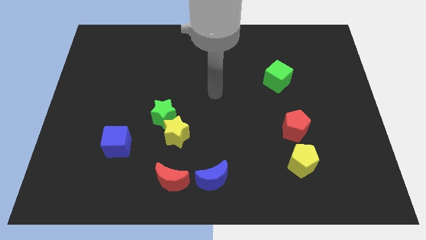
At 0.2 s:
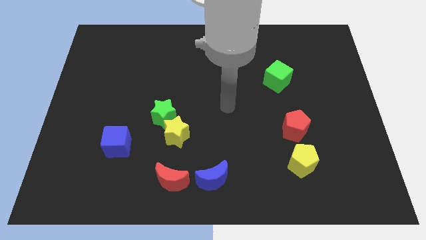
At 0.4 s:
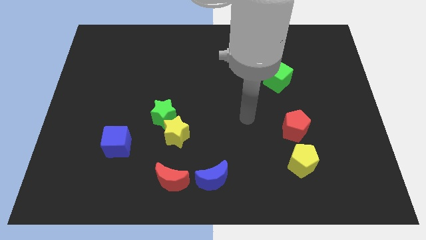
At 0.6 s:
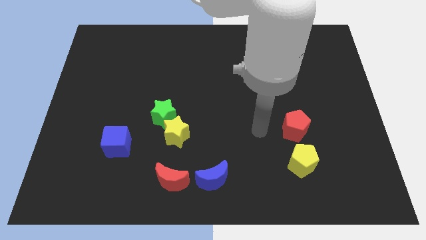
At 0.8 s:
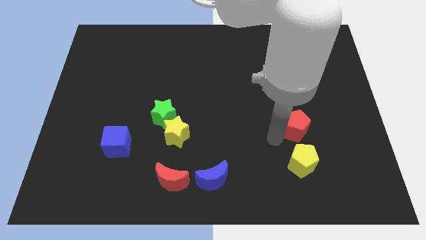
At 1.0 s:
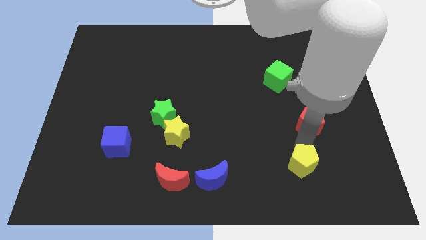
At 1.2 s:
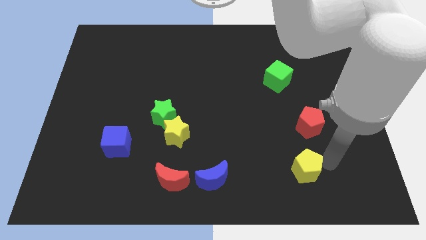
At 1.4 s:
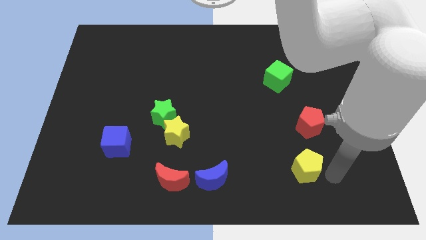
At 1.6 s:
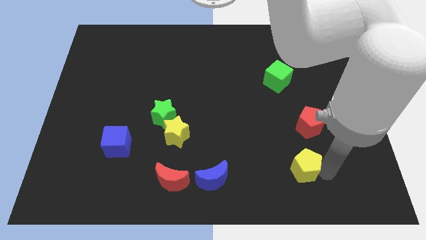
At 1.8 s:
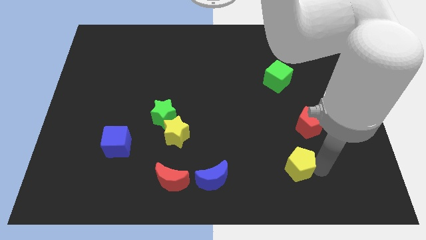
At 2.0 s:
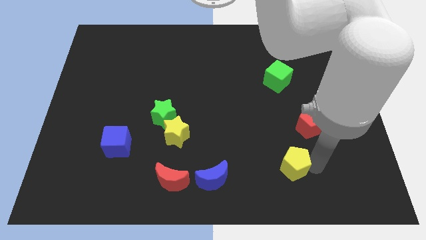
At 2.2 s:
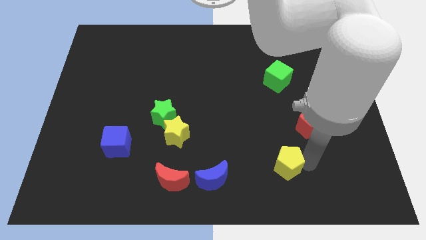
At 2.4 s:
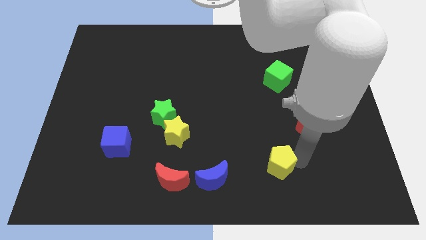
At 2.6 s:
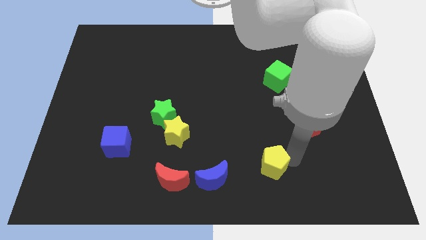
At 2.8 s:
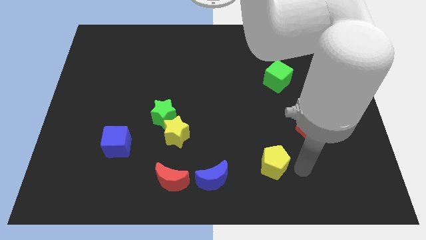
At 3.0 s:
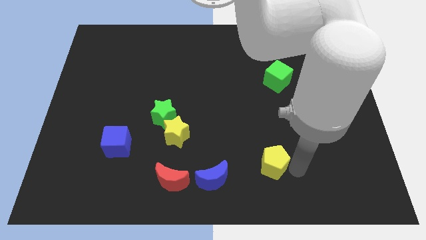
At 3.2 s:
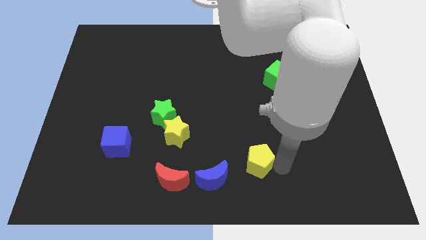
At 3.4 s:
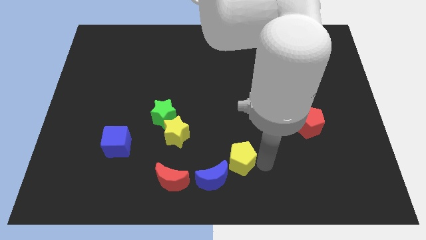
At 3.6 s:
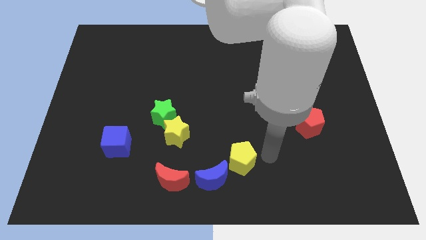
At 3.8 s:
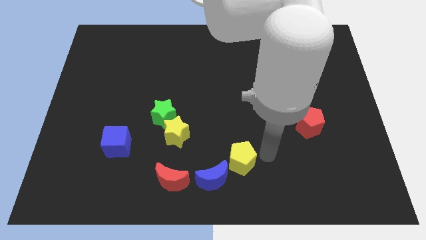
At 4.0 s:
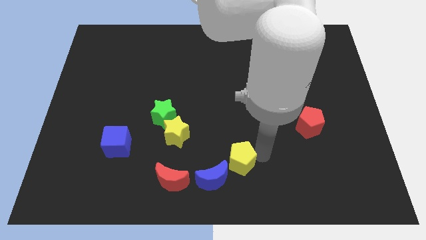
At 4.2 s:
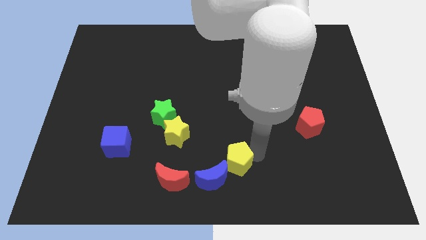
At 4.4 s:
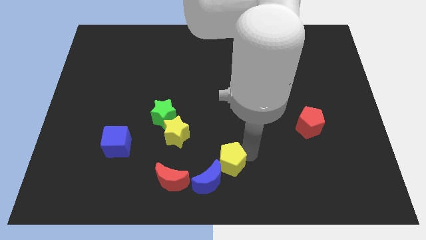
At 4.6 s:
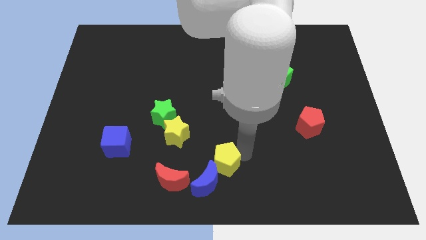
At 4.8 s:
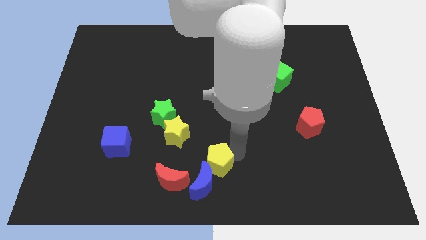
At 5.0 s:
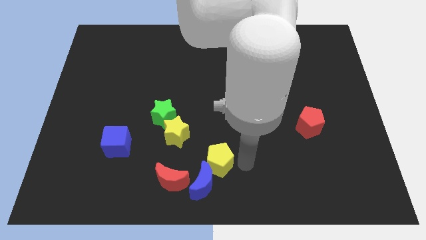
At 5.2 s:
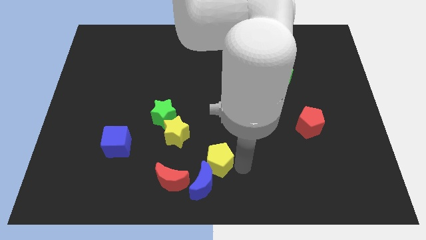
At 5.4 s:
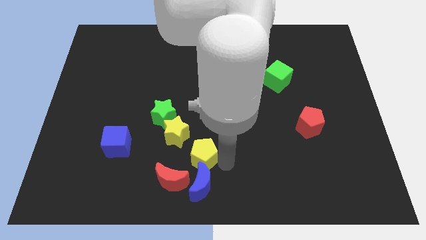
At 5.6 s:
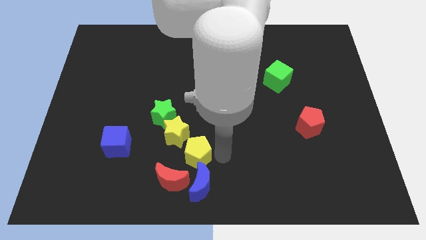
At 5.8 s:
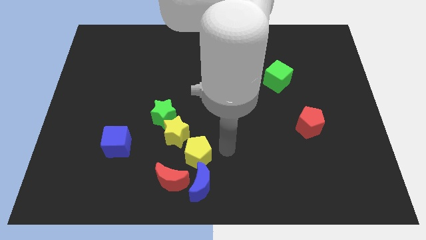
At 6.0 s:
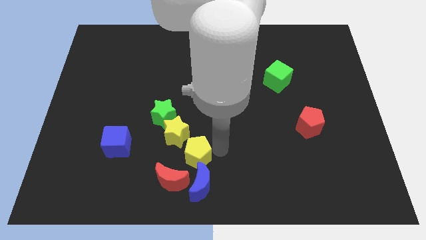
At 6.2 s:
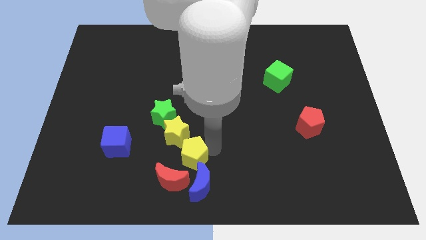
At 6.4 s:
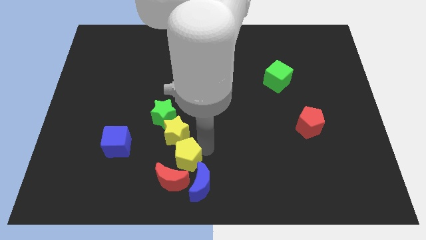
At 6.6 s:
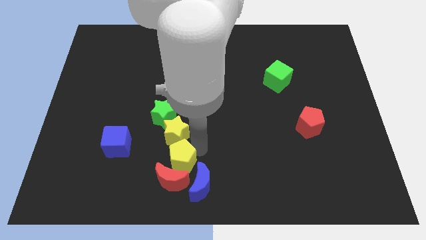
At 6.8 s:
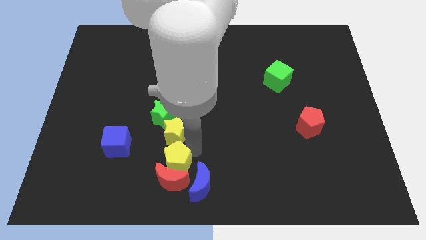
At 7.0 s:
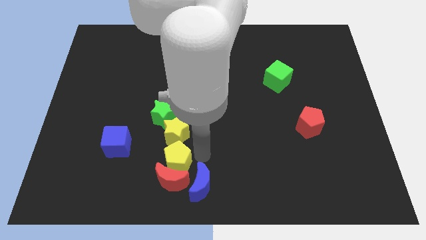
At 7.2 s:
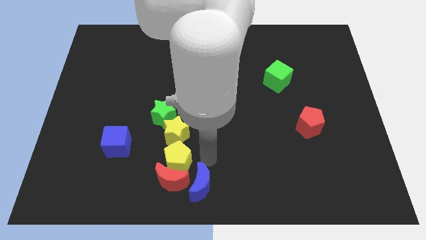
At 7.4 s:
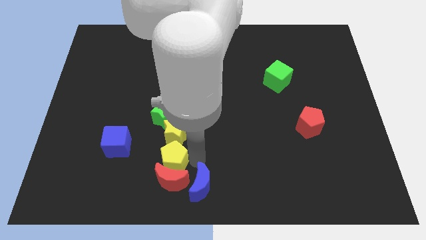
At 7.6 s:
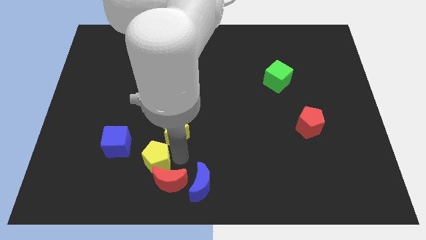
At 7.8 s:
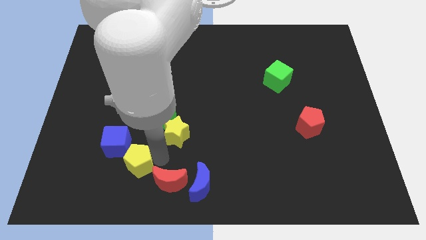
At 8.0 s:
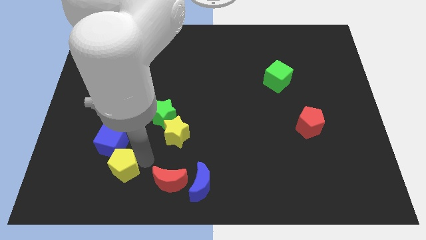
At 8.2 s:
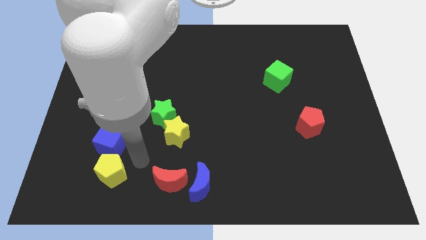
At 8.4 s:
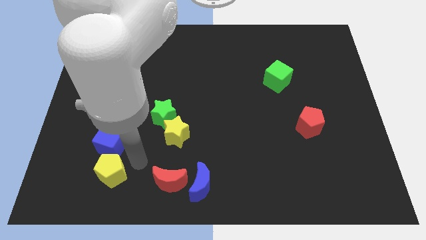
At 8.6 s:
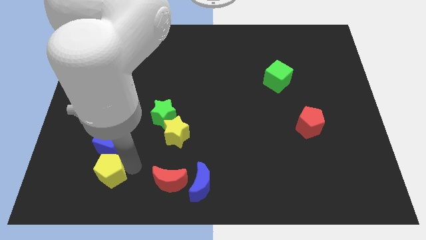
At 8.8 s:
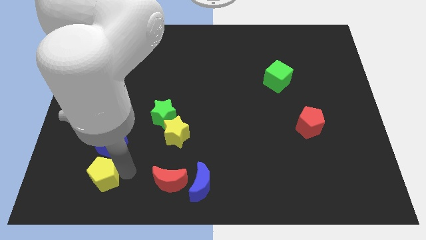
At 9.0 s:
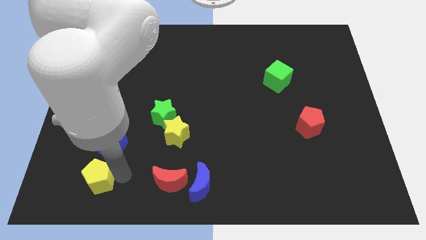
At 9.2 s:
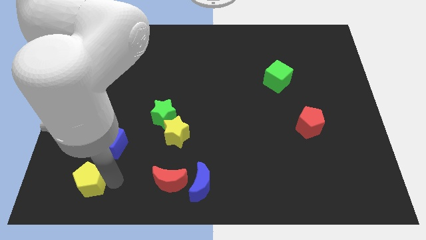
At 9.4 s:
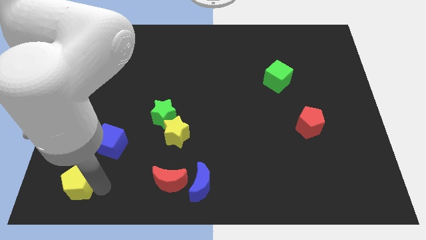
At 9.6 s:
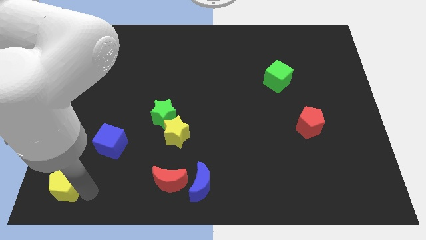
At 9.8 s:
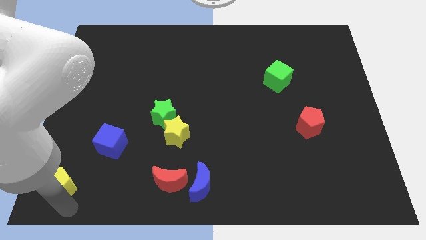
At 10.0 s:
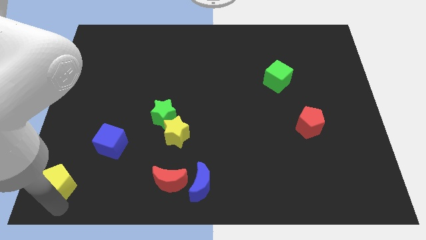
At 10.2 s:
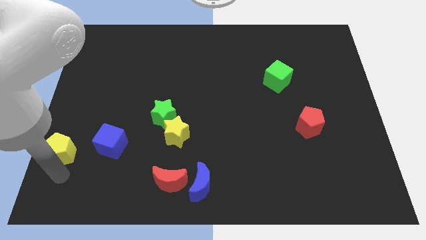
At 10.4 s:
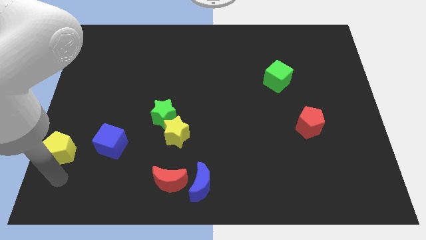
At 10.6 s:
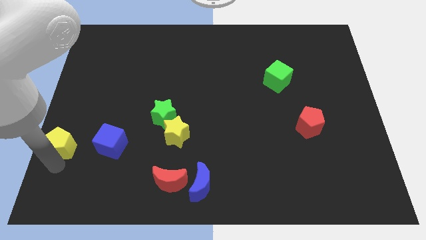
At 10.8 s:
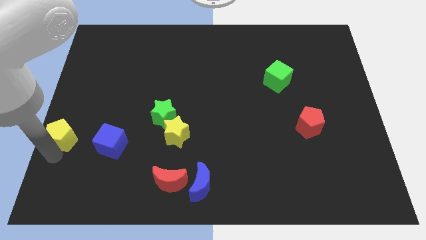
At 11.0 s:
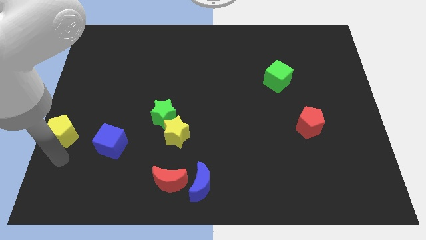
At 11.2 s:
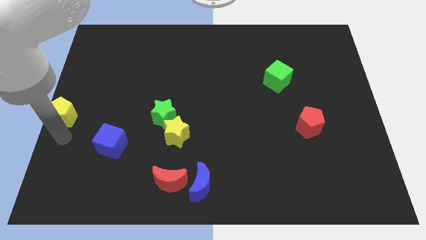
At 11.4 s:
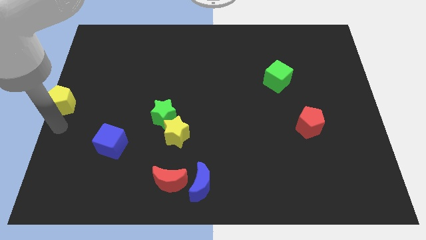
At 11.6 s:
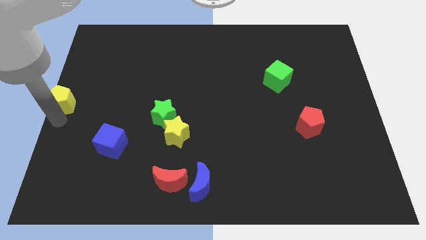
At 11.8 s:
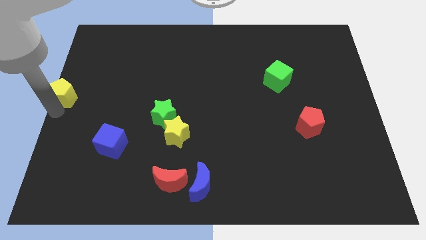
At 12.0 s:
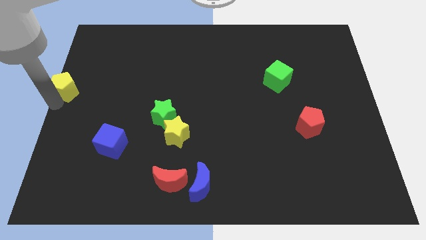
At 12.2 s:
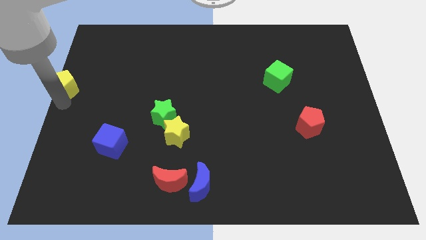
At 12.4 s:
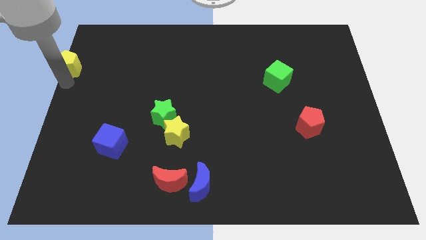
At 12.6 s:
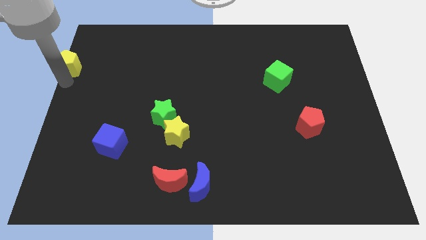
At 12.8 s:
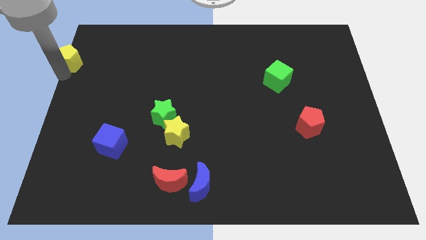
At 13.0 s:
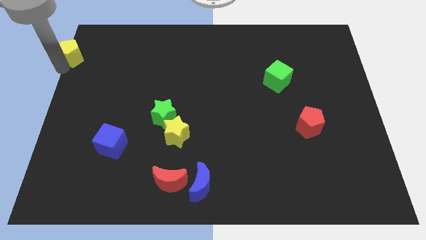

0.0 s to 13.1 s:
slide the yellow pentagon to the top left of the board
